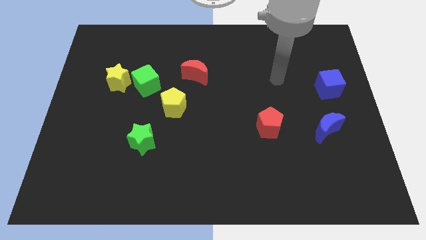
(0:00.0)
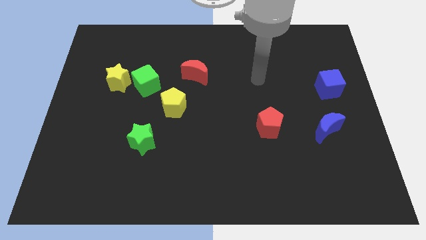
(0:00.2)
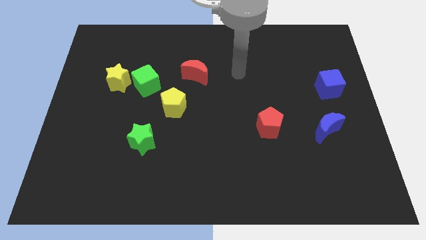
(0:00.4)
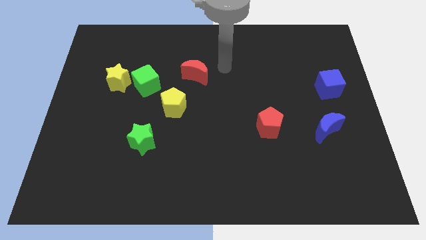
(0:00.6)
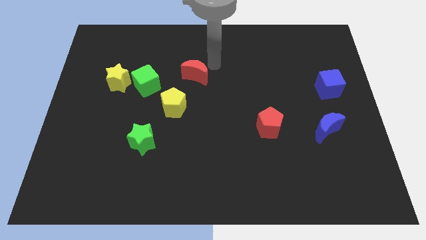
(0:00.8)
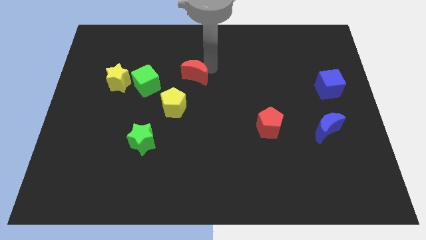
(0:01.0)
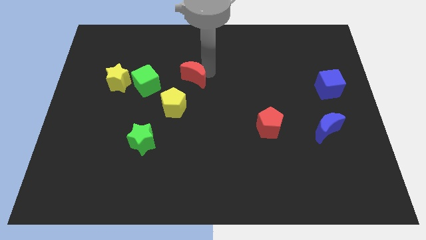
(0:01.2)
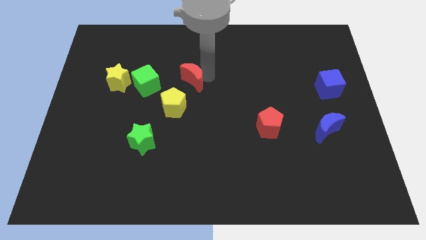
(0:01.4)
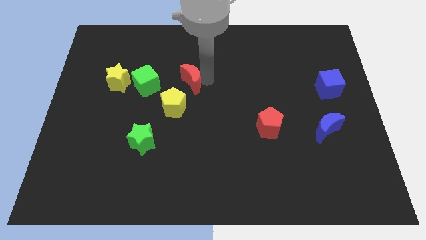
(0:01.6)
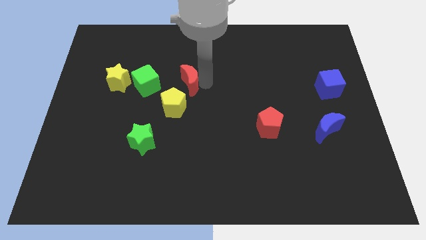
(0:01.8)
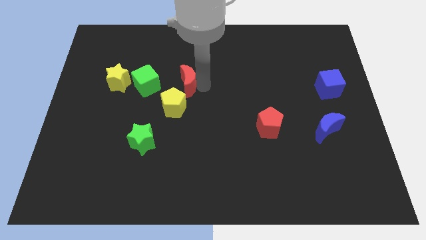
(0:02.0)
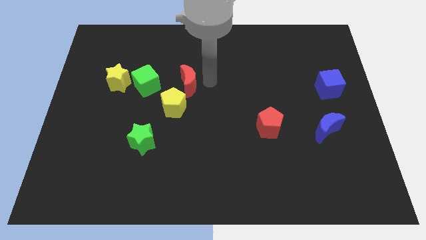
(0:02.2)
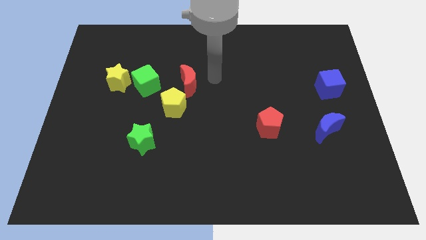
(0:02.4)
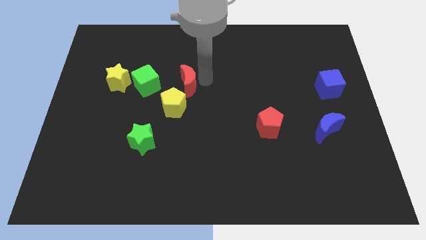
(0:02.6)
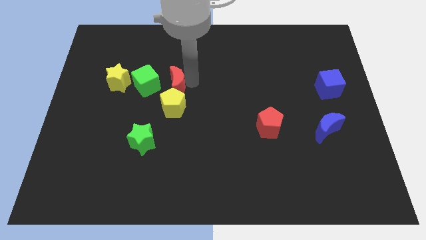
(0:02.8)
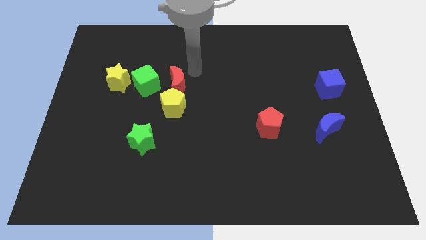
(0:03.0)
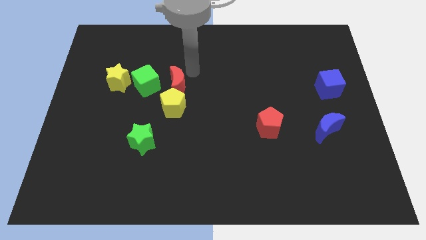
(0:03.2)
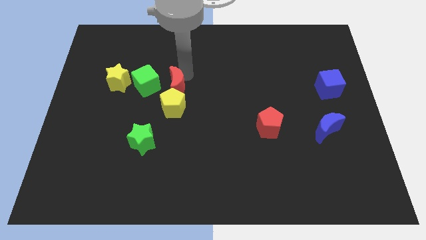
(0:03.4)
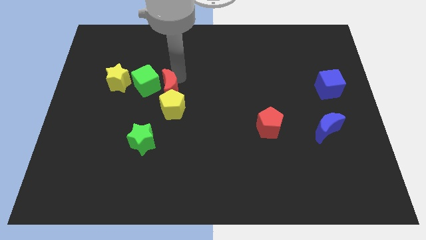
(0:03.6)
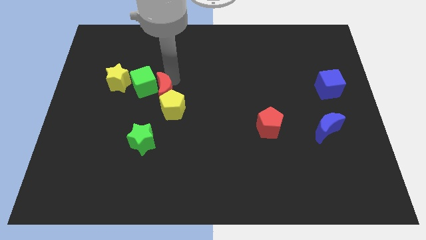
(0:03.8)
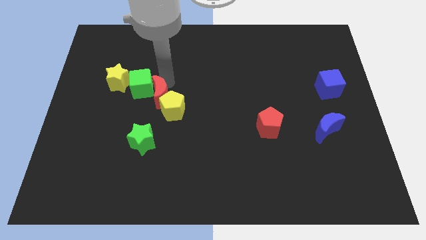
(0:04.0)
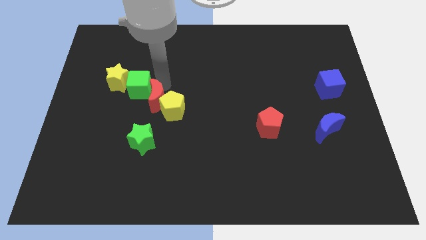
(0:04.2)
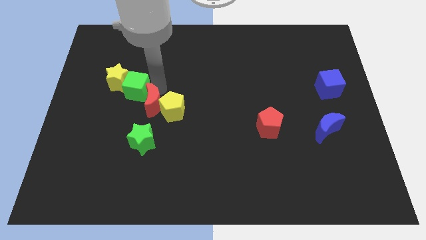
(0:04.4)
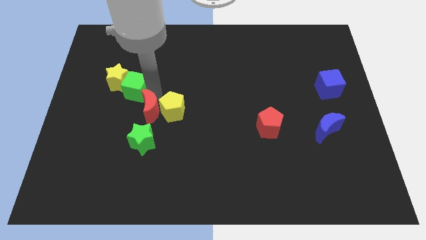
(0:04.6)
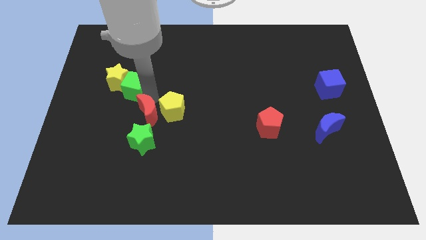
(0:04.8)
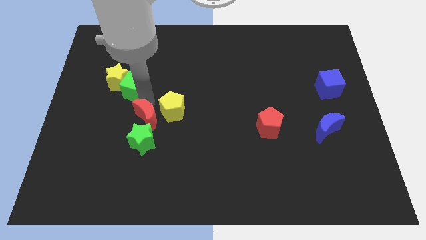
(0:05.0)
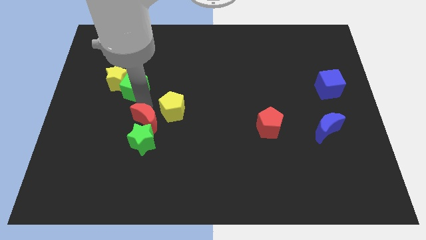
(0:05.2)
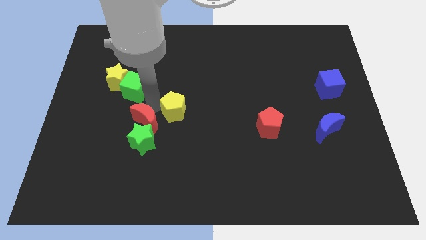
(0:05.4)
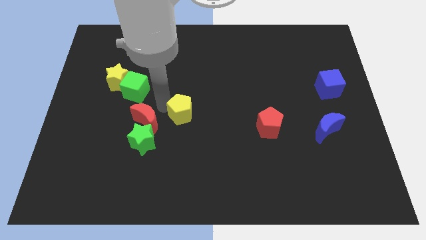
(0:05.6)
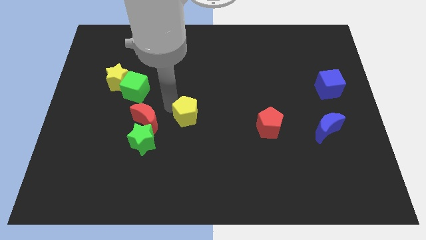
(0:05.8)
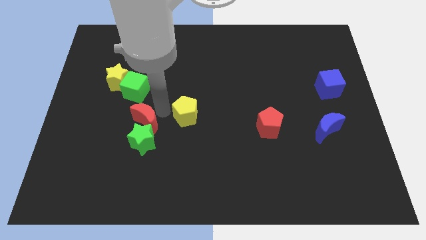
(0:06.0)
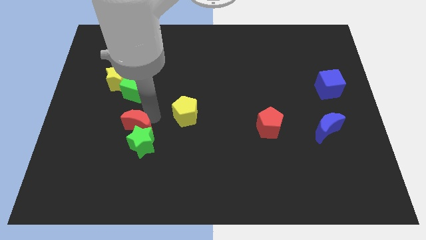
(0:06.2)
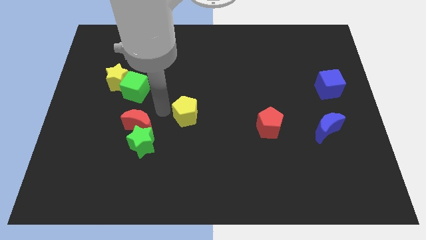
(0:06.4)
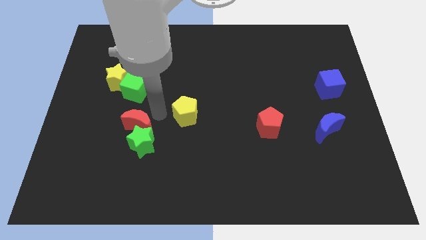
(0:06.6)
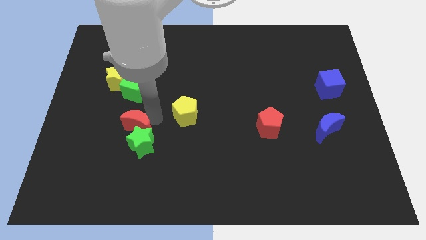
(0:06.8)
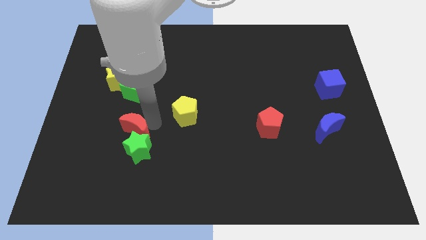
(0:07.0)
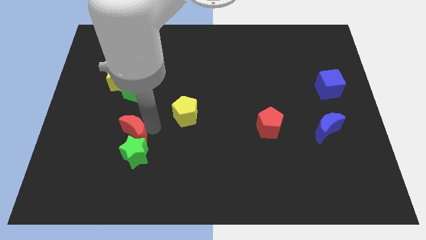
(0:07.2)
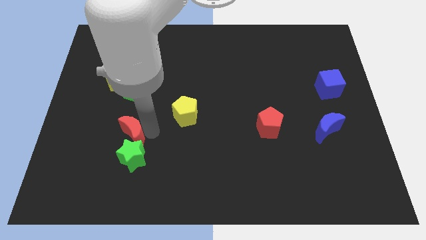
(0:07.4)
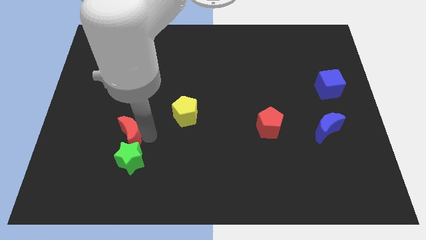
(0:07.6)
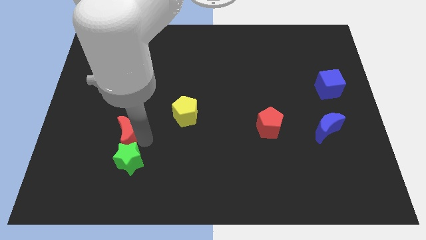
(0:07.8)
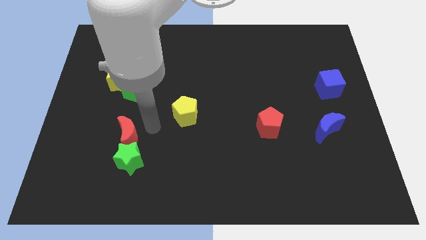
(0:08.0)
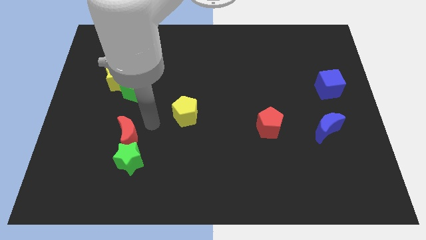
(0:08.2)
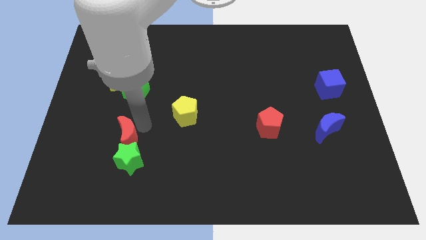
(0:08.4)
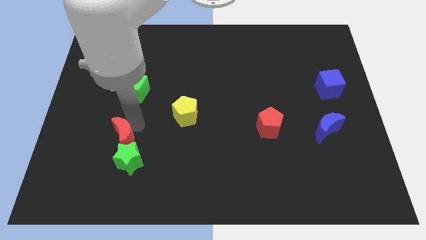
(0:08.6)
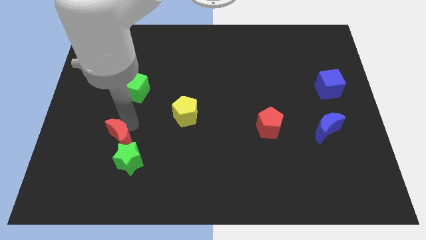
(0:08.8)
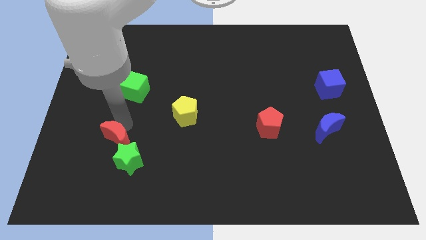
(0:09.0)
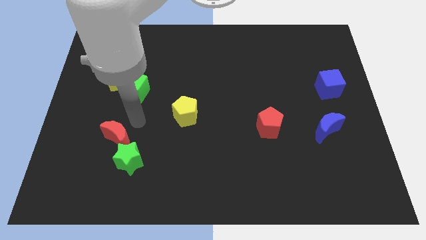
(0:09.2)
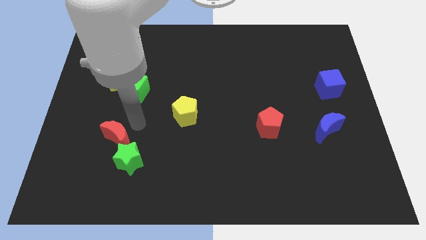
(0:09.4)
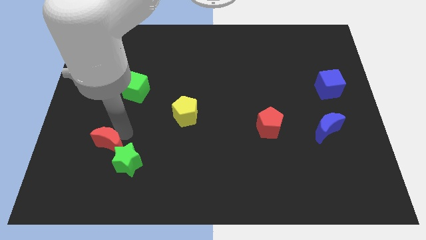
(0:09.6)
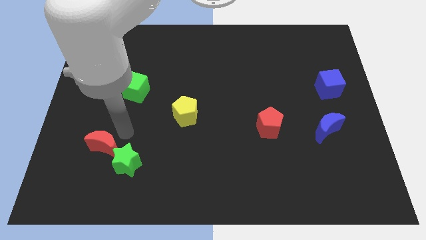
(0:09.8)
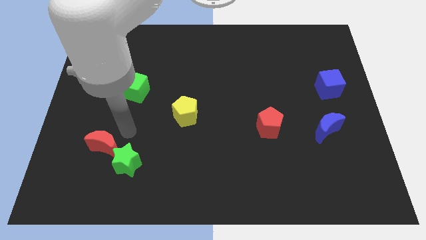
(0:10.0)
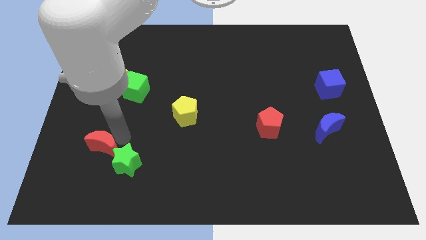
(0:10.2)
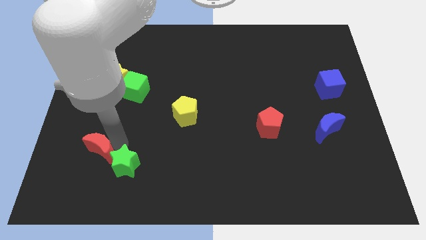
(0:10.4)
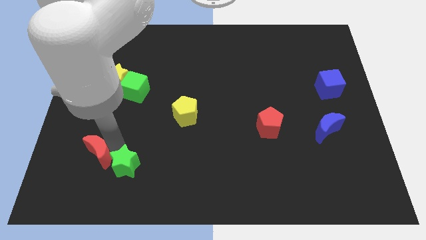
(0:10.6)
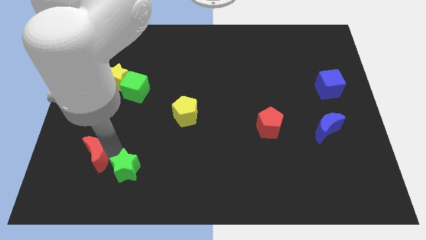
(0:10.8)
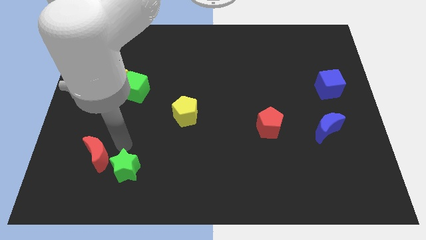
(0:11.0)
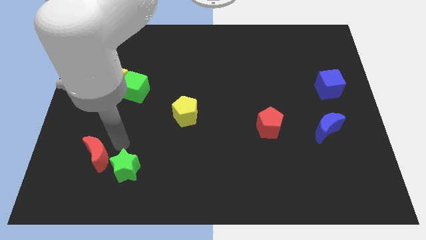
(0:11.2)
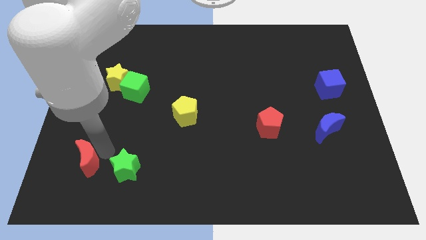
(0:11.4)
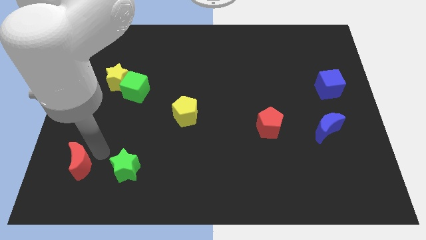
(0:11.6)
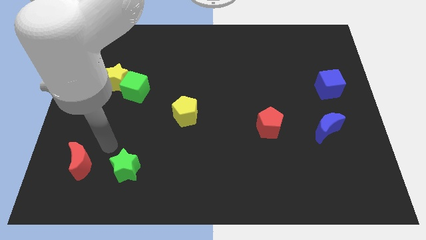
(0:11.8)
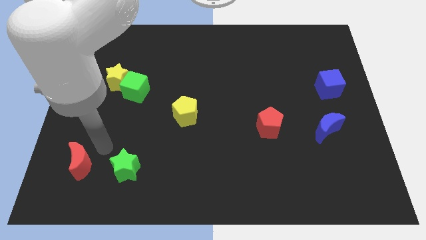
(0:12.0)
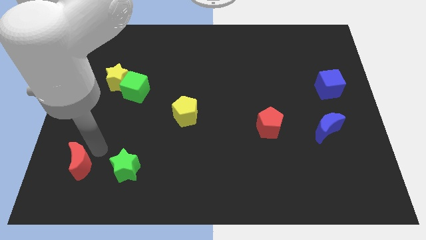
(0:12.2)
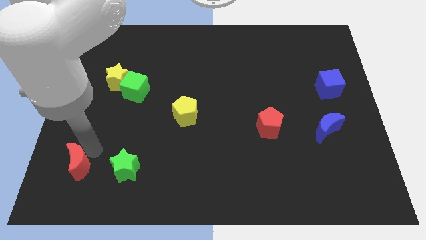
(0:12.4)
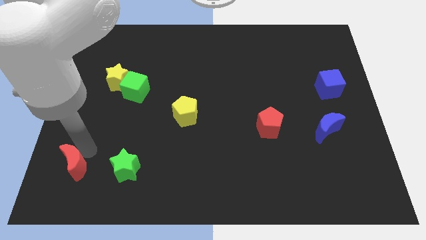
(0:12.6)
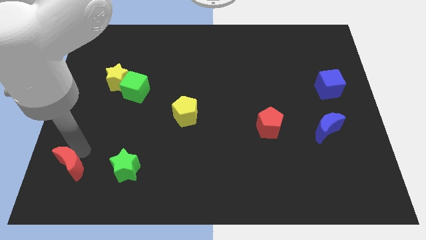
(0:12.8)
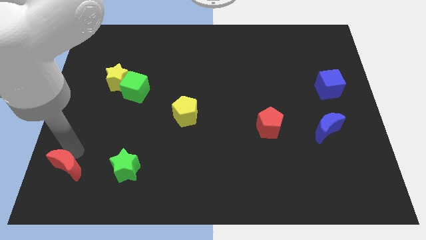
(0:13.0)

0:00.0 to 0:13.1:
slide the red moon to the bottom left corner
